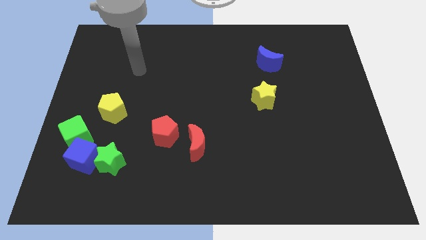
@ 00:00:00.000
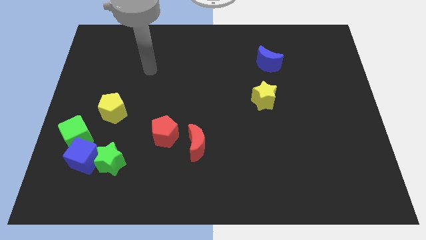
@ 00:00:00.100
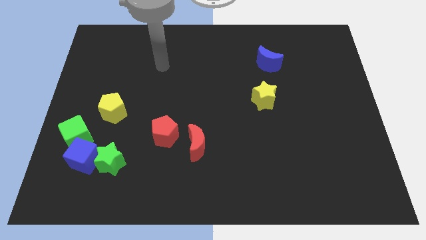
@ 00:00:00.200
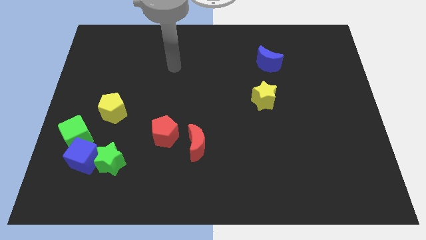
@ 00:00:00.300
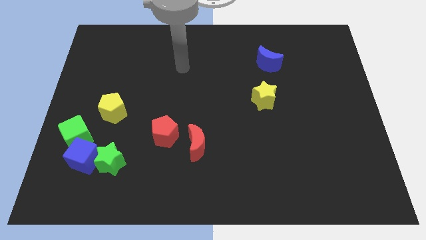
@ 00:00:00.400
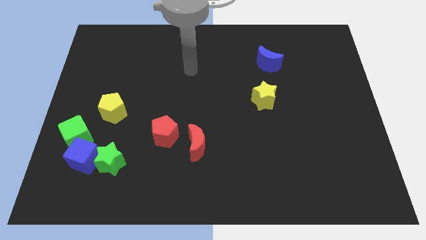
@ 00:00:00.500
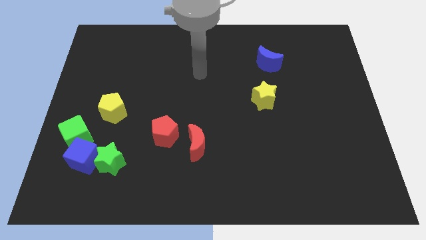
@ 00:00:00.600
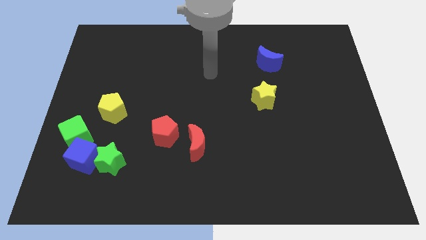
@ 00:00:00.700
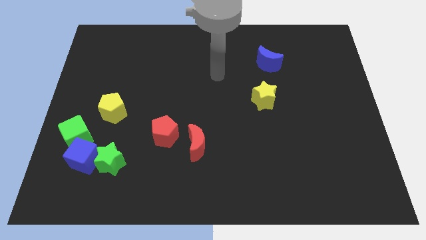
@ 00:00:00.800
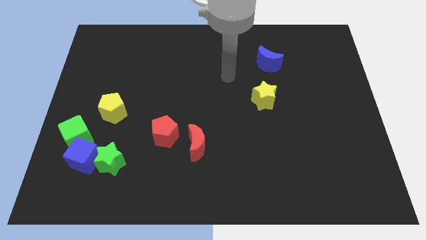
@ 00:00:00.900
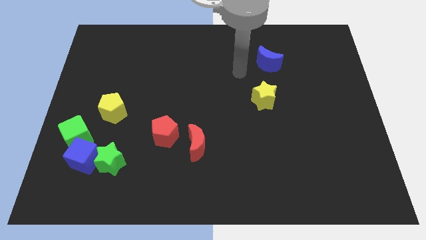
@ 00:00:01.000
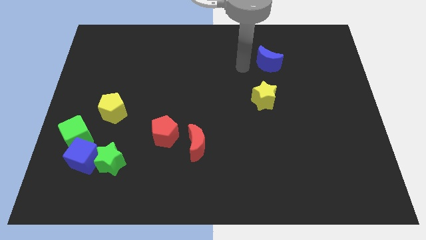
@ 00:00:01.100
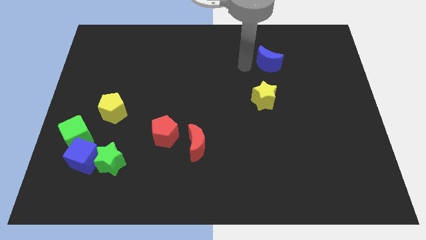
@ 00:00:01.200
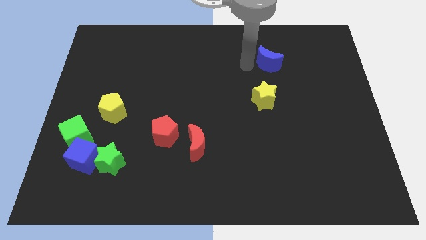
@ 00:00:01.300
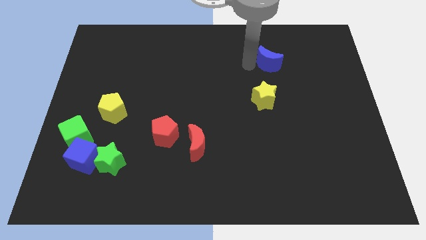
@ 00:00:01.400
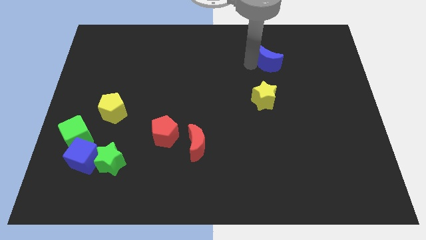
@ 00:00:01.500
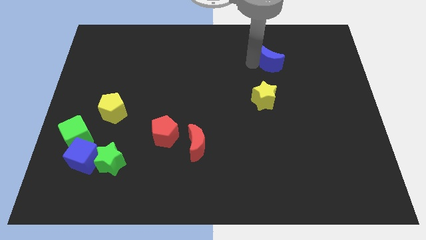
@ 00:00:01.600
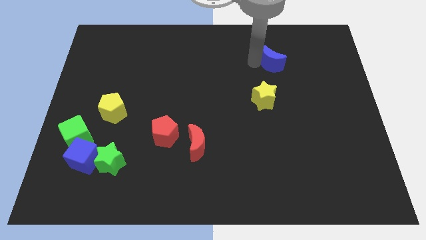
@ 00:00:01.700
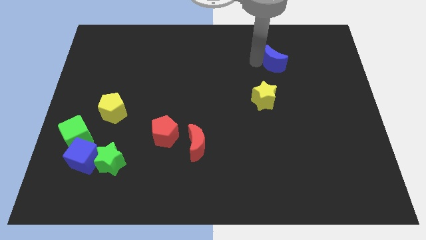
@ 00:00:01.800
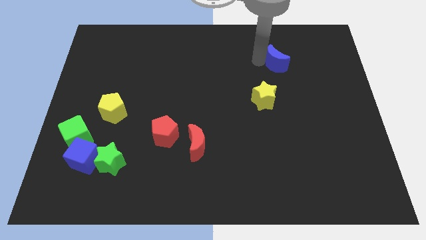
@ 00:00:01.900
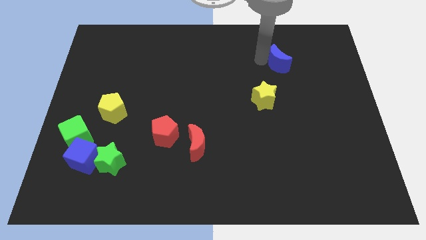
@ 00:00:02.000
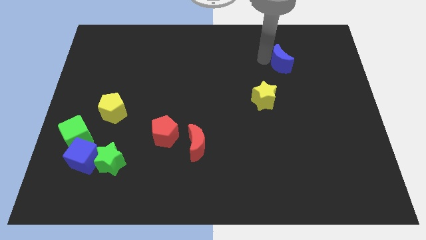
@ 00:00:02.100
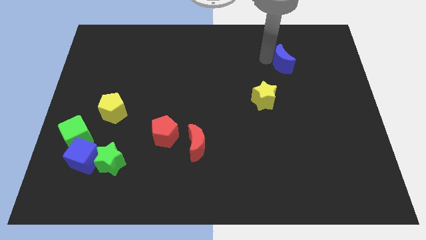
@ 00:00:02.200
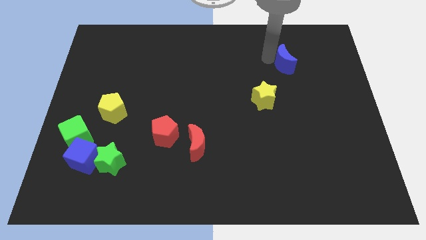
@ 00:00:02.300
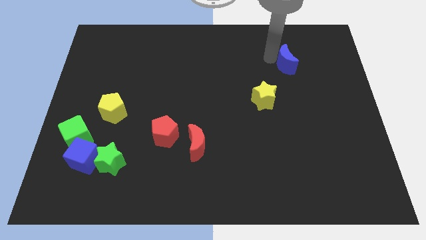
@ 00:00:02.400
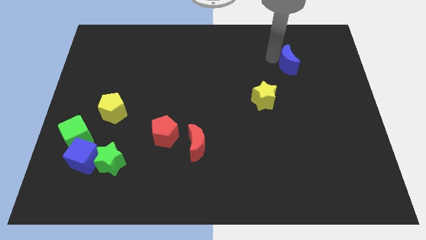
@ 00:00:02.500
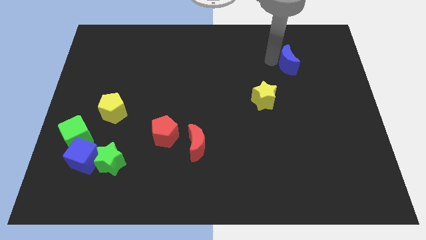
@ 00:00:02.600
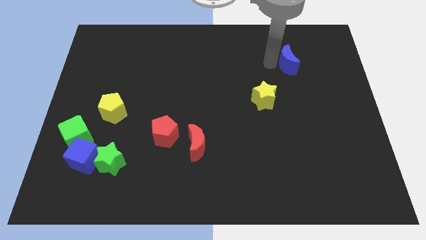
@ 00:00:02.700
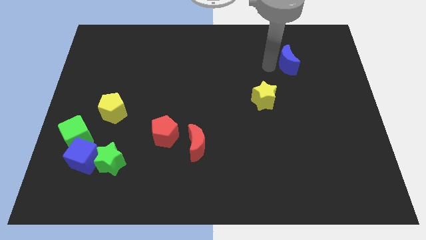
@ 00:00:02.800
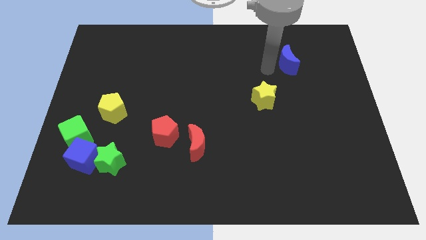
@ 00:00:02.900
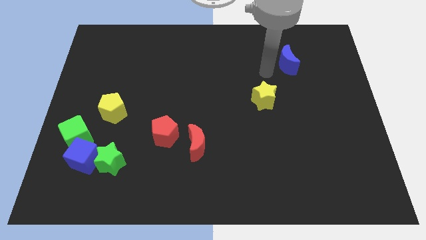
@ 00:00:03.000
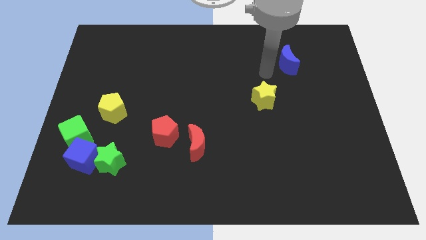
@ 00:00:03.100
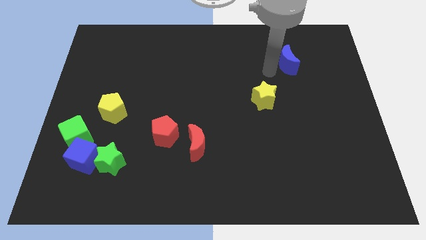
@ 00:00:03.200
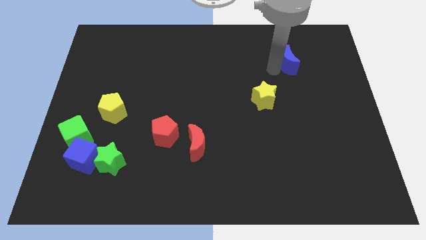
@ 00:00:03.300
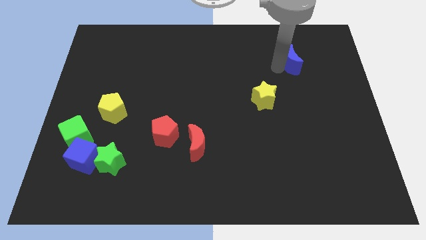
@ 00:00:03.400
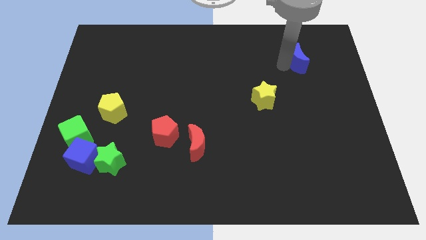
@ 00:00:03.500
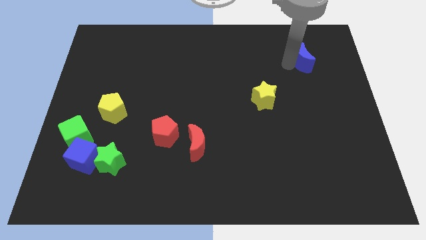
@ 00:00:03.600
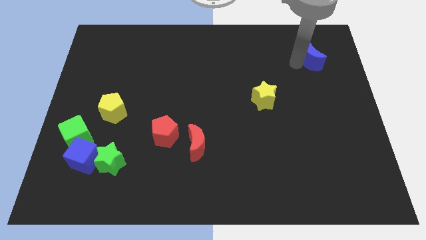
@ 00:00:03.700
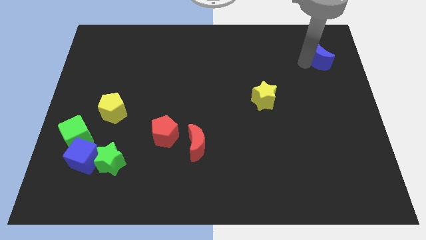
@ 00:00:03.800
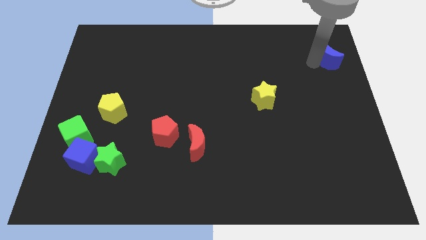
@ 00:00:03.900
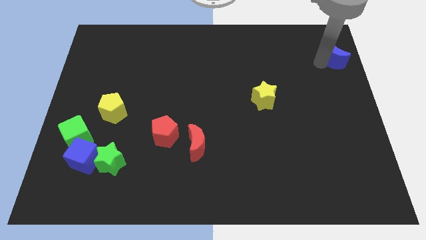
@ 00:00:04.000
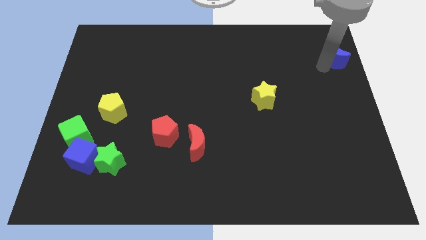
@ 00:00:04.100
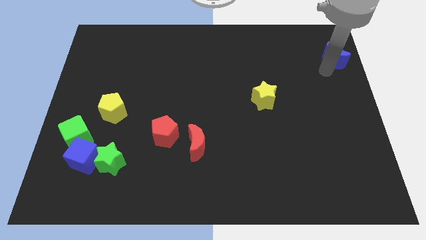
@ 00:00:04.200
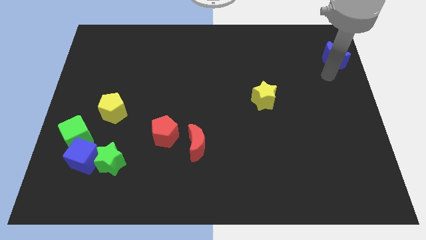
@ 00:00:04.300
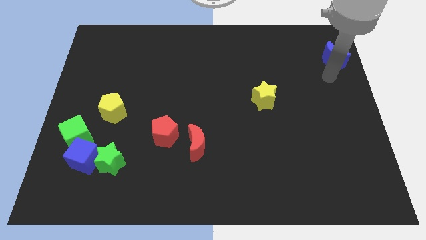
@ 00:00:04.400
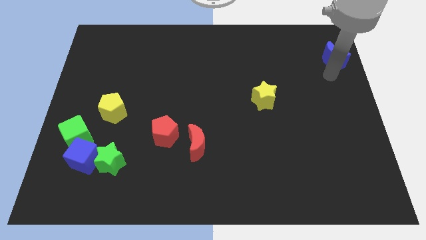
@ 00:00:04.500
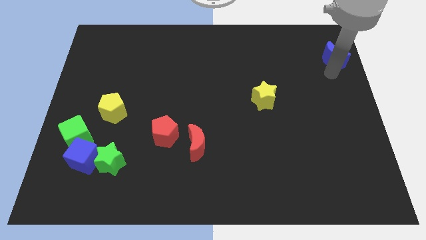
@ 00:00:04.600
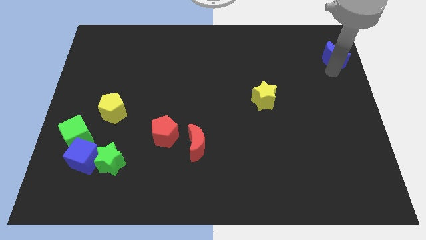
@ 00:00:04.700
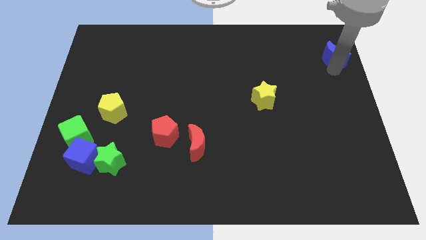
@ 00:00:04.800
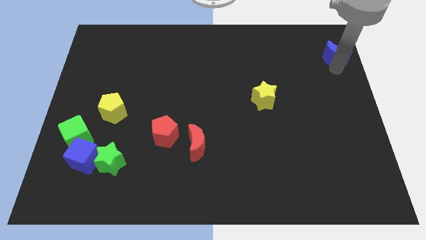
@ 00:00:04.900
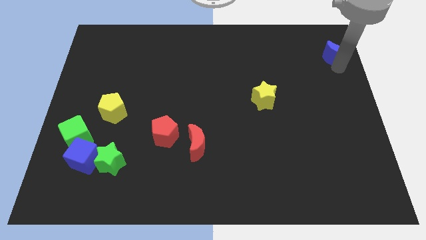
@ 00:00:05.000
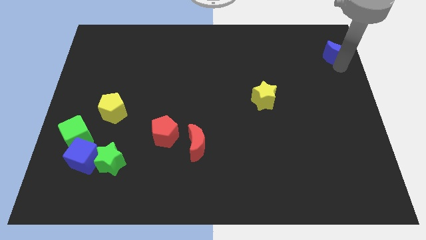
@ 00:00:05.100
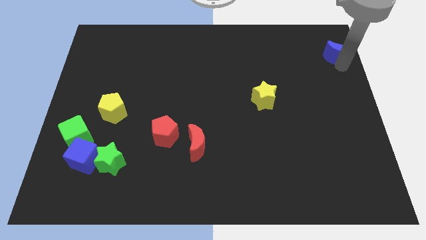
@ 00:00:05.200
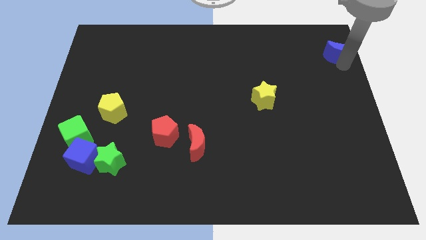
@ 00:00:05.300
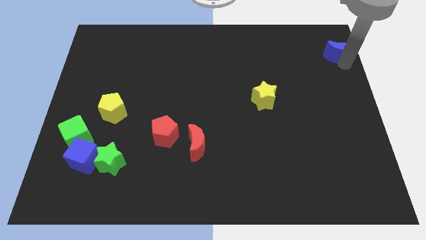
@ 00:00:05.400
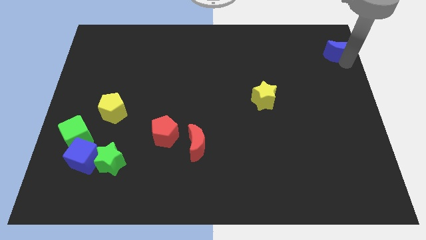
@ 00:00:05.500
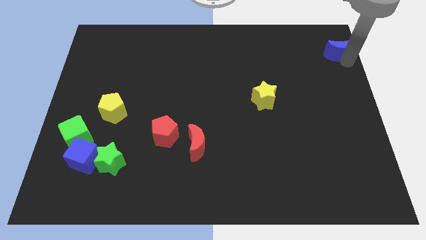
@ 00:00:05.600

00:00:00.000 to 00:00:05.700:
push the blue moon to the top right
